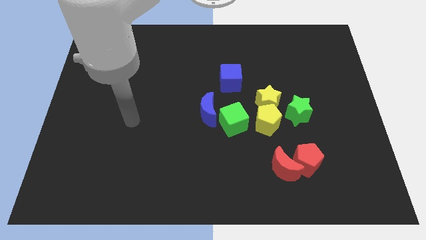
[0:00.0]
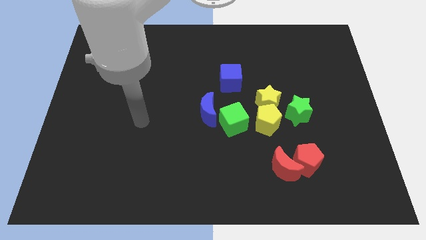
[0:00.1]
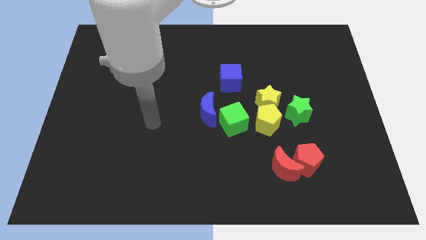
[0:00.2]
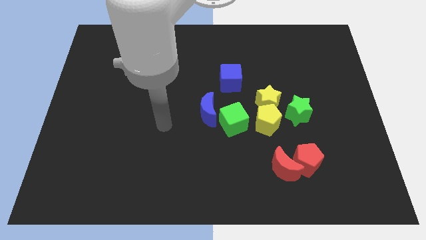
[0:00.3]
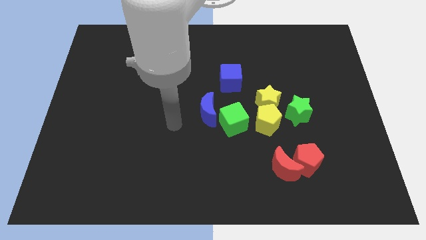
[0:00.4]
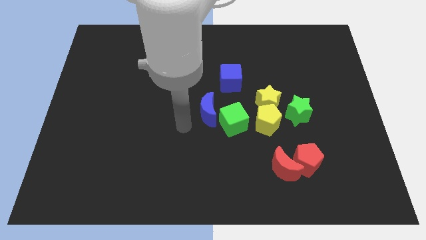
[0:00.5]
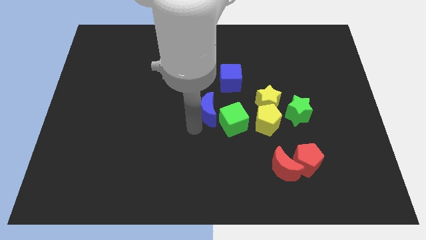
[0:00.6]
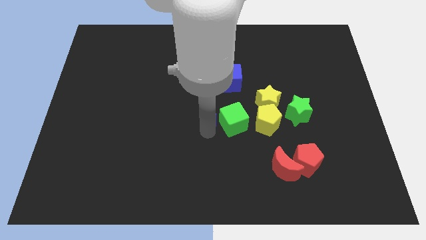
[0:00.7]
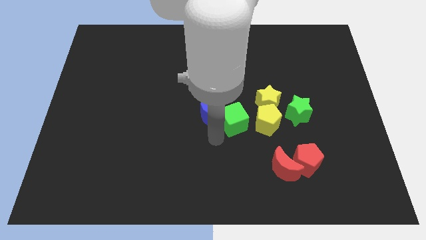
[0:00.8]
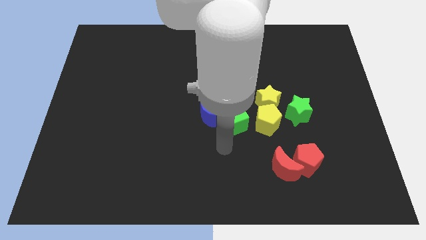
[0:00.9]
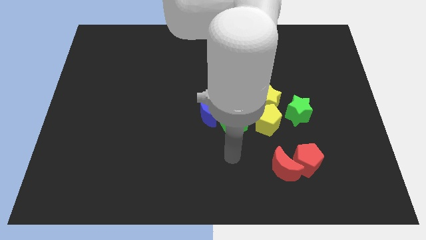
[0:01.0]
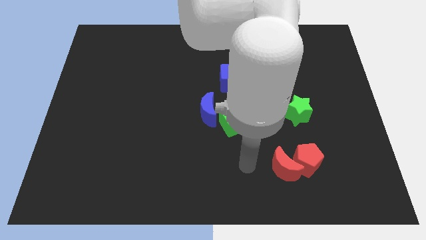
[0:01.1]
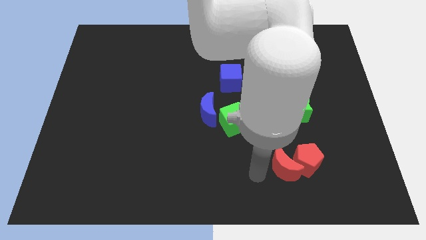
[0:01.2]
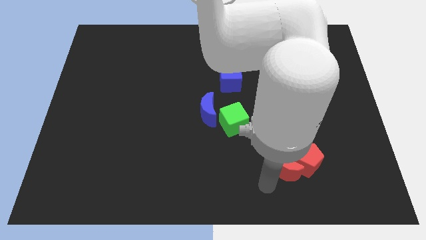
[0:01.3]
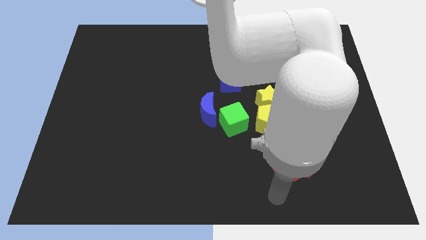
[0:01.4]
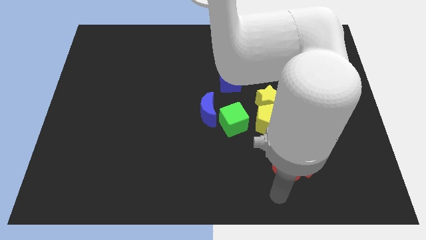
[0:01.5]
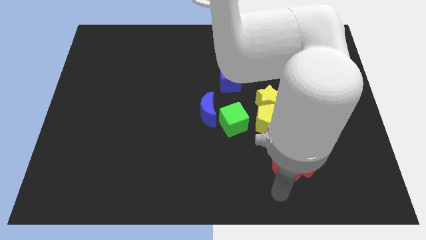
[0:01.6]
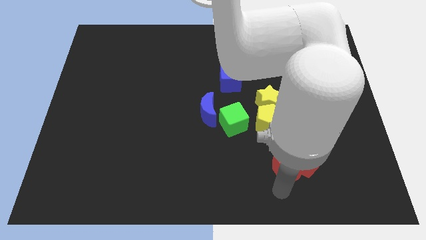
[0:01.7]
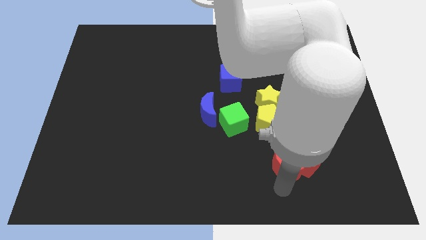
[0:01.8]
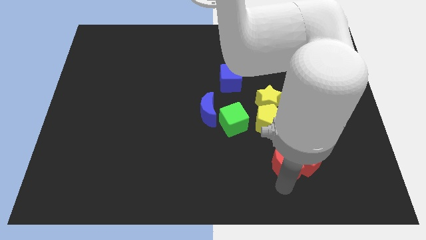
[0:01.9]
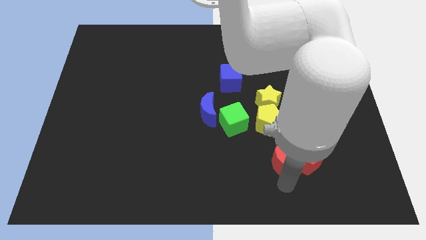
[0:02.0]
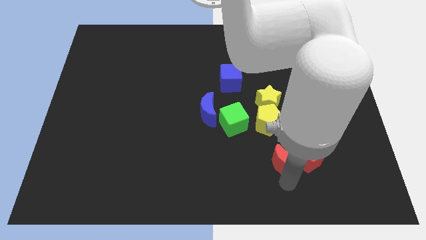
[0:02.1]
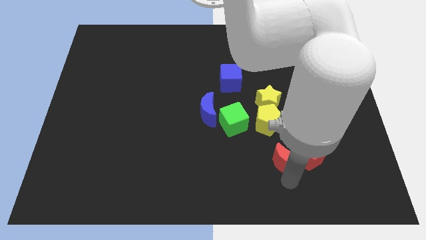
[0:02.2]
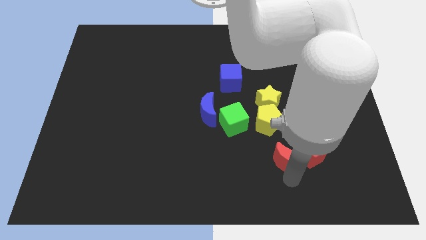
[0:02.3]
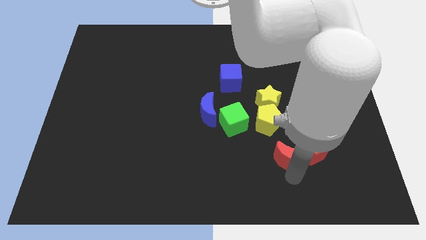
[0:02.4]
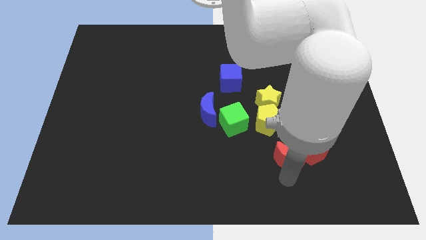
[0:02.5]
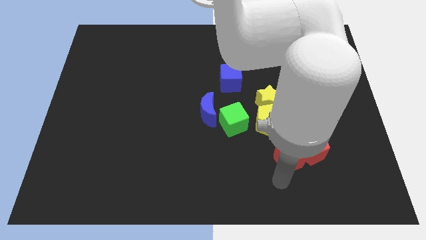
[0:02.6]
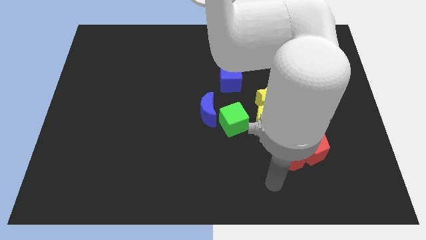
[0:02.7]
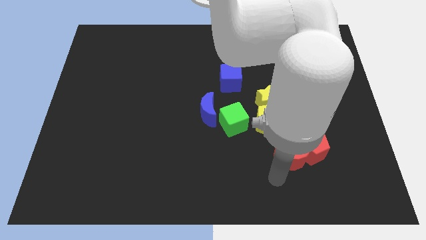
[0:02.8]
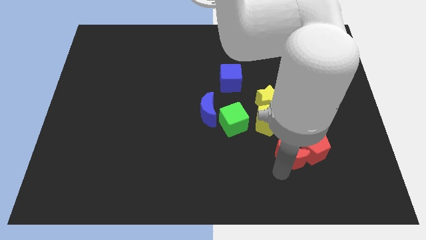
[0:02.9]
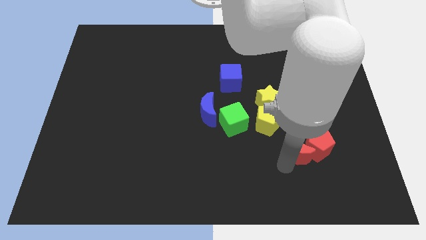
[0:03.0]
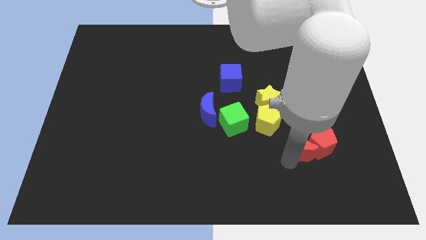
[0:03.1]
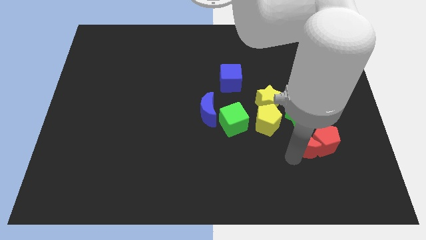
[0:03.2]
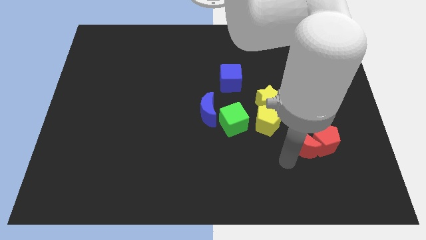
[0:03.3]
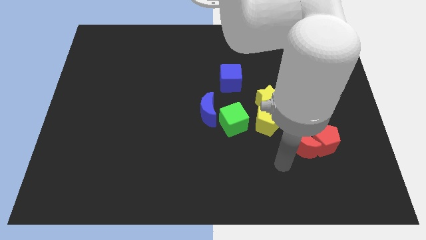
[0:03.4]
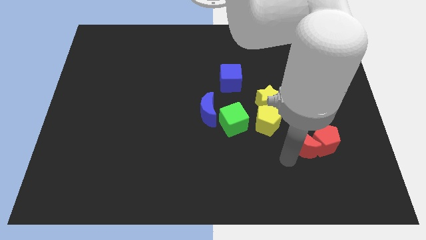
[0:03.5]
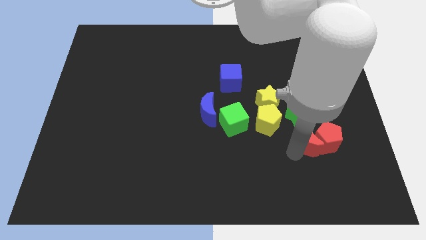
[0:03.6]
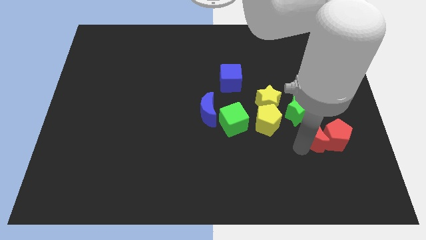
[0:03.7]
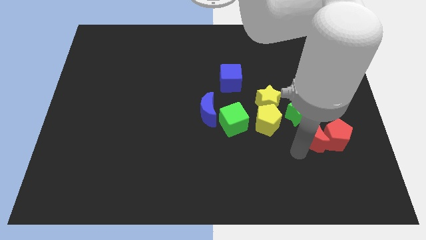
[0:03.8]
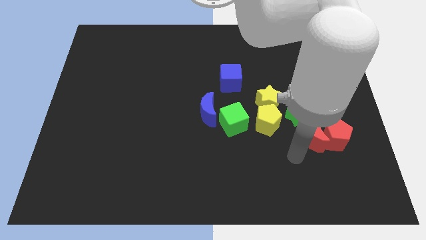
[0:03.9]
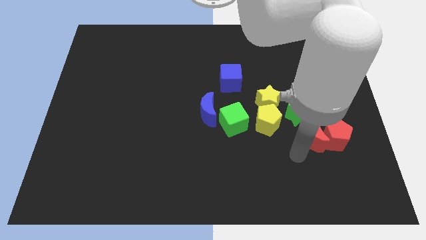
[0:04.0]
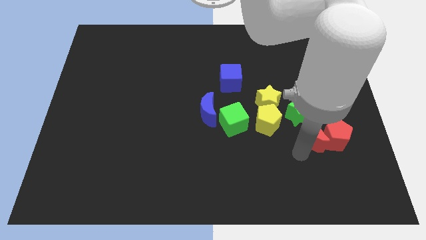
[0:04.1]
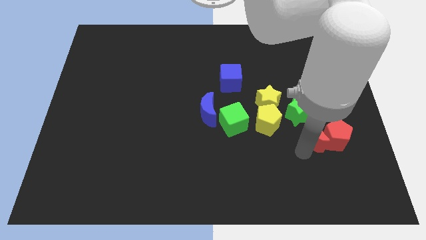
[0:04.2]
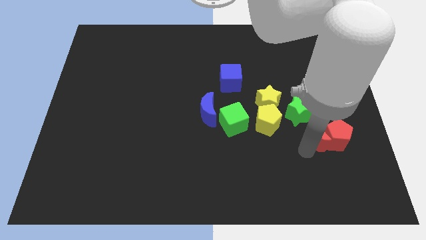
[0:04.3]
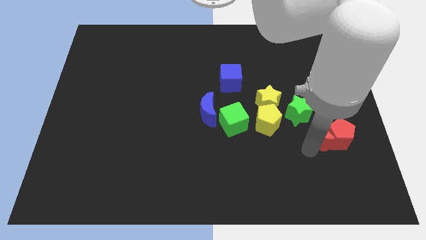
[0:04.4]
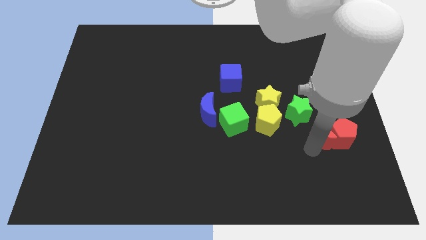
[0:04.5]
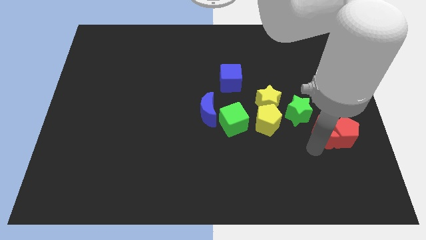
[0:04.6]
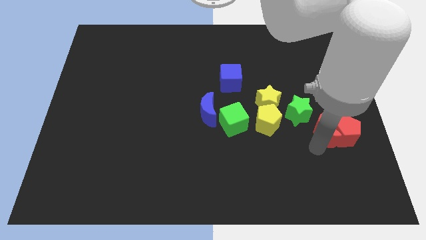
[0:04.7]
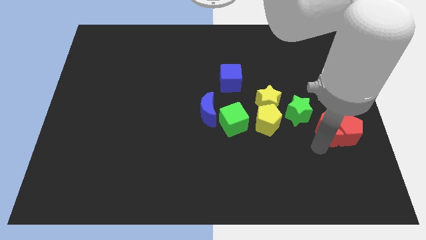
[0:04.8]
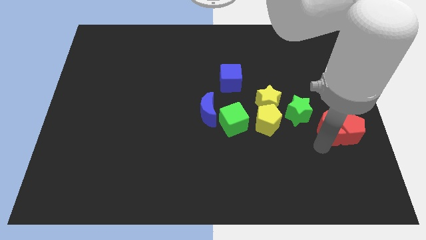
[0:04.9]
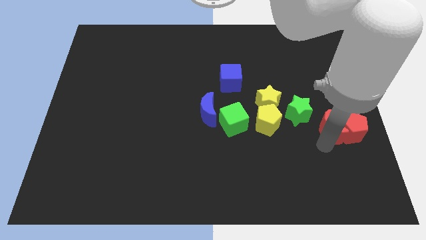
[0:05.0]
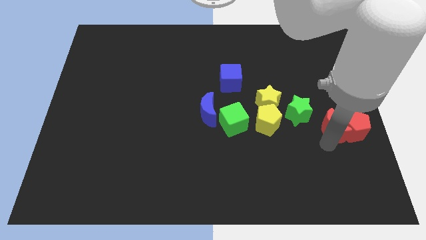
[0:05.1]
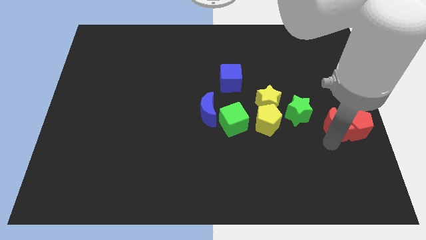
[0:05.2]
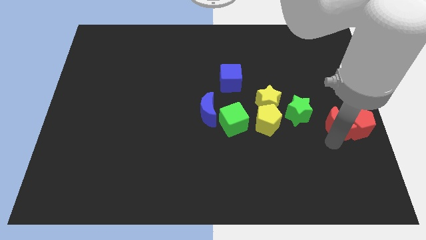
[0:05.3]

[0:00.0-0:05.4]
push the red moon to the right side of the board

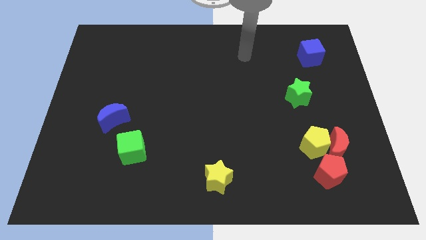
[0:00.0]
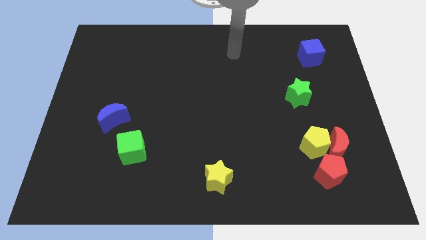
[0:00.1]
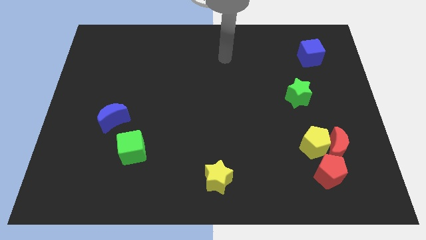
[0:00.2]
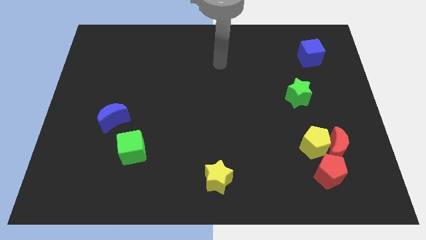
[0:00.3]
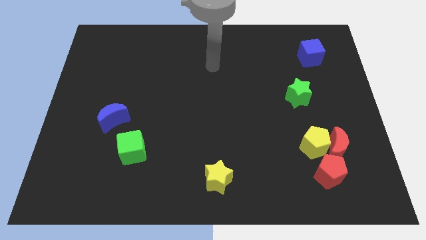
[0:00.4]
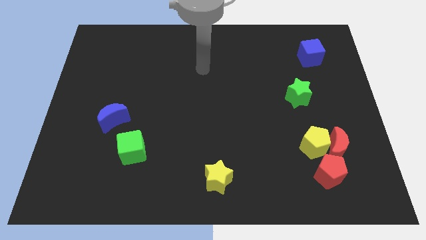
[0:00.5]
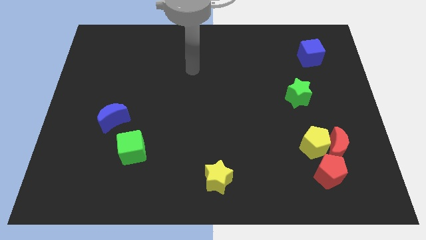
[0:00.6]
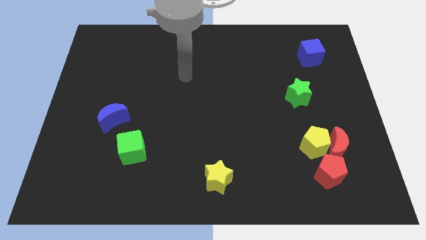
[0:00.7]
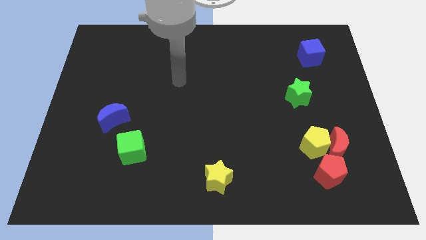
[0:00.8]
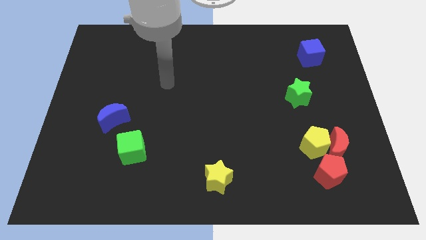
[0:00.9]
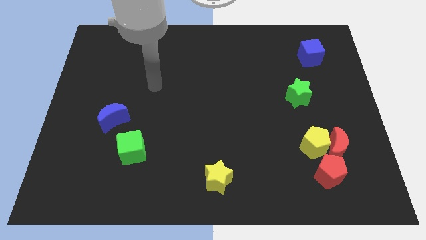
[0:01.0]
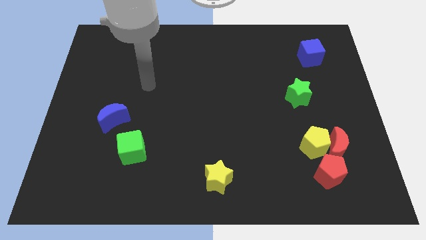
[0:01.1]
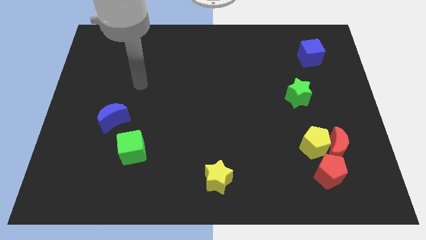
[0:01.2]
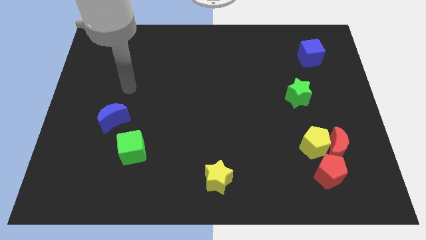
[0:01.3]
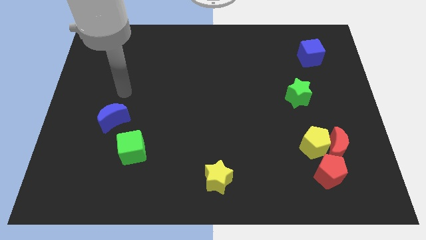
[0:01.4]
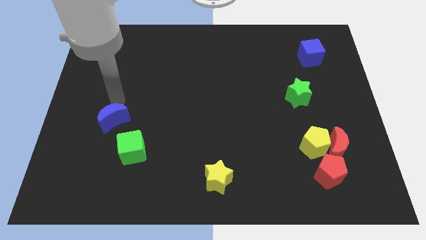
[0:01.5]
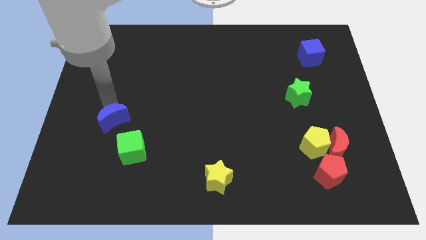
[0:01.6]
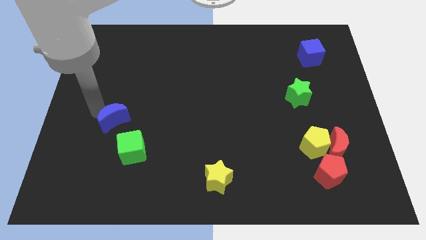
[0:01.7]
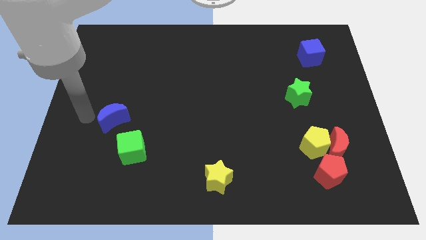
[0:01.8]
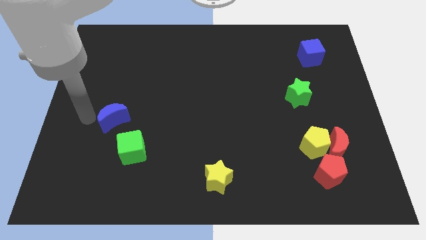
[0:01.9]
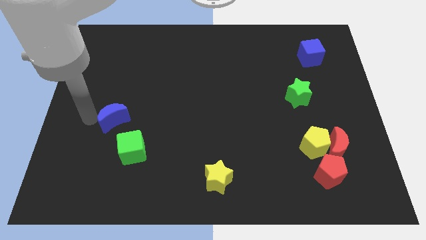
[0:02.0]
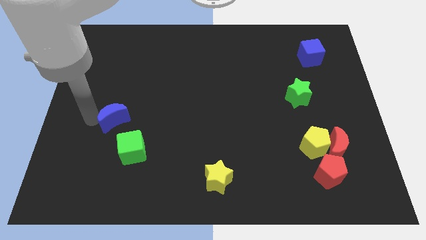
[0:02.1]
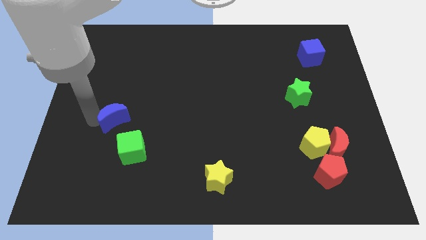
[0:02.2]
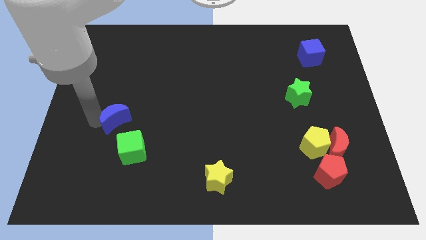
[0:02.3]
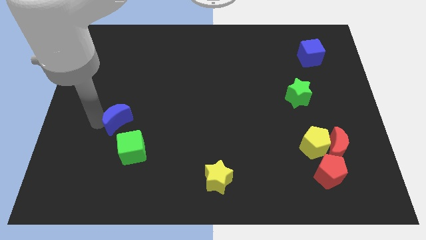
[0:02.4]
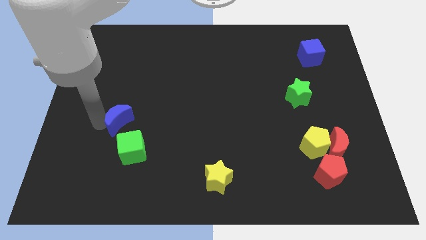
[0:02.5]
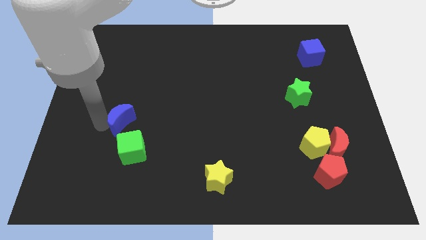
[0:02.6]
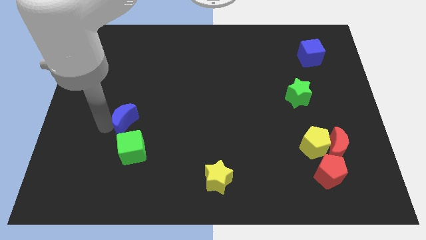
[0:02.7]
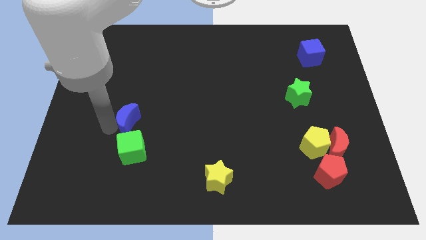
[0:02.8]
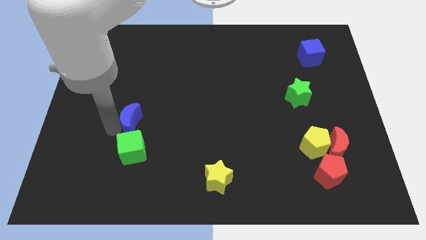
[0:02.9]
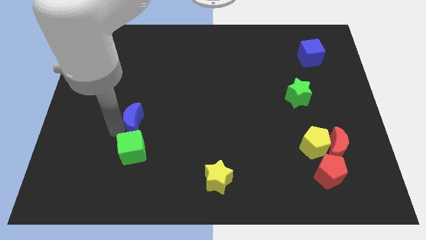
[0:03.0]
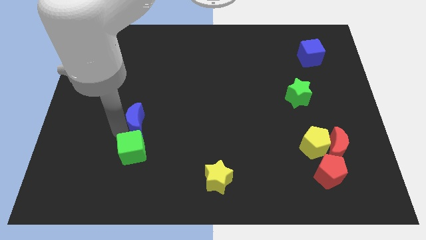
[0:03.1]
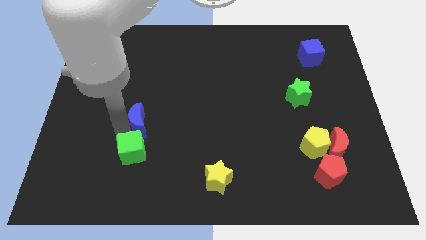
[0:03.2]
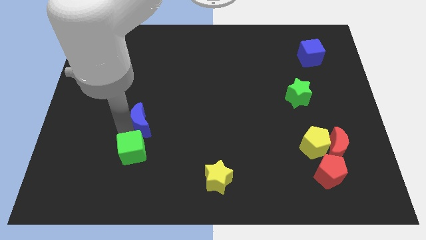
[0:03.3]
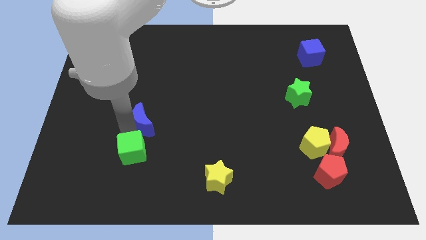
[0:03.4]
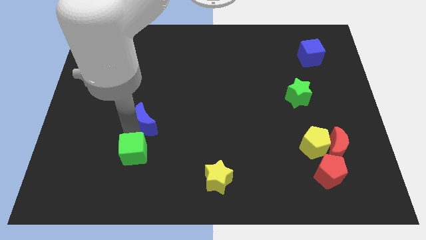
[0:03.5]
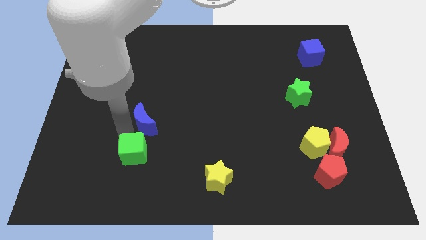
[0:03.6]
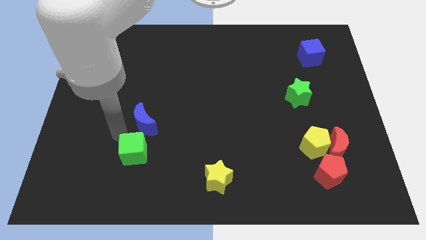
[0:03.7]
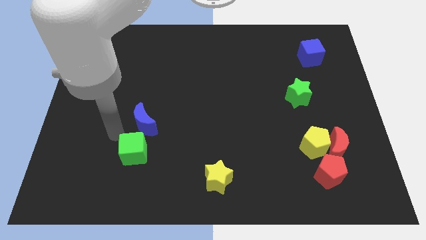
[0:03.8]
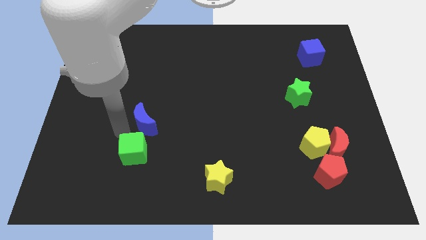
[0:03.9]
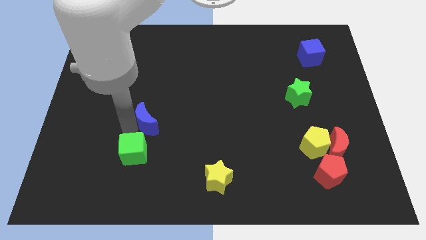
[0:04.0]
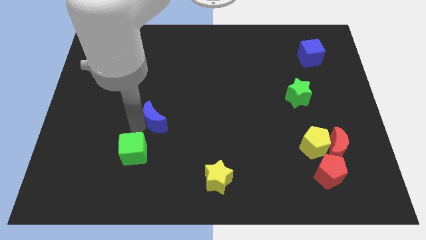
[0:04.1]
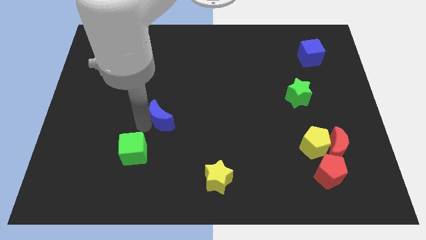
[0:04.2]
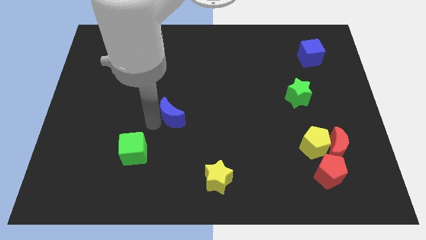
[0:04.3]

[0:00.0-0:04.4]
slide the blue moon to the center
